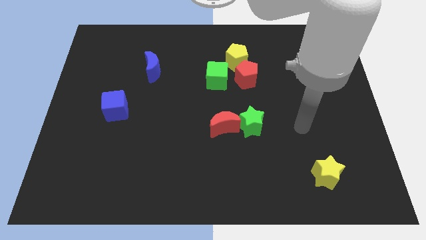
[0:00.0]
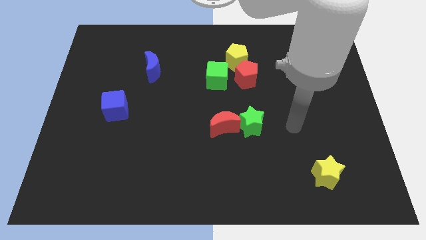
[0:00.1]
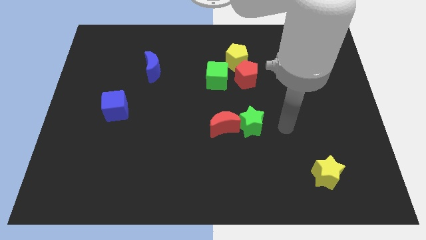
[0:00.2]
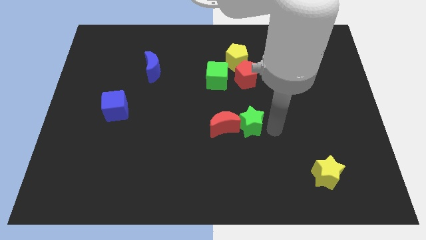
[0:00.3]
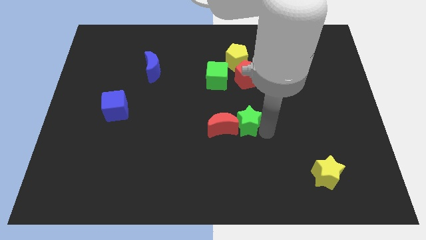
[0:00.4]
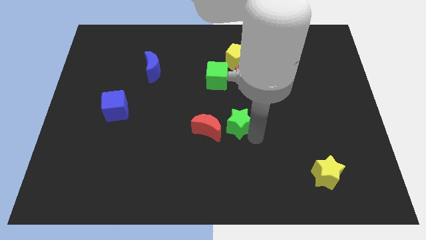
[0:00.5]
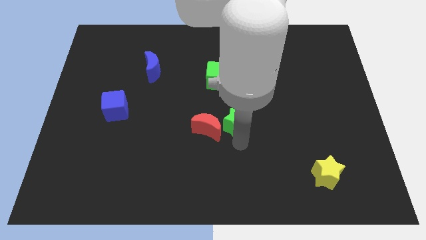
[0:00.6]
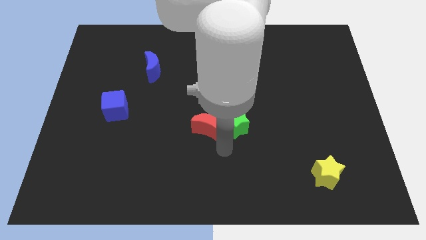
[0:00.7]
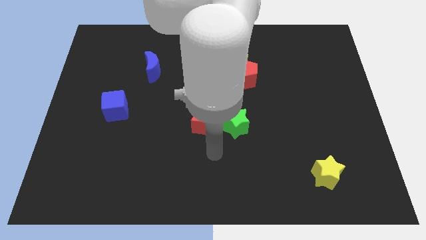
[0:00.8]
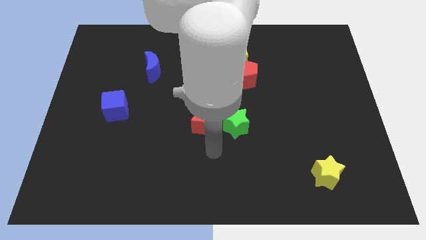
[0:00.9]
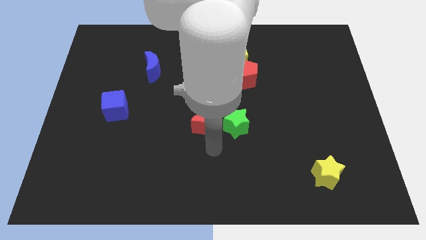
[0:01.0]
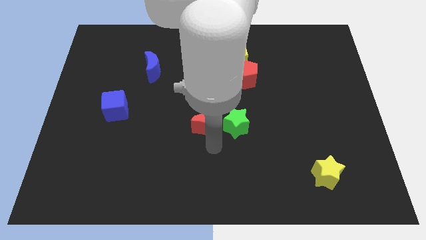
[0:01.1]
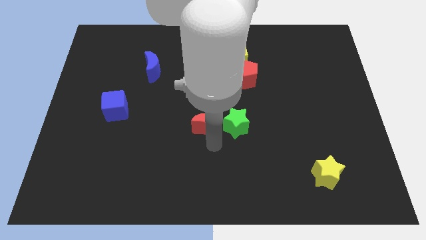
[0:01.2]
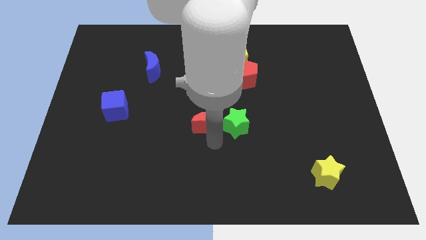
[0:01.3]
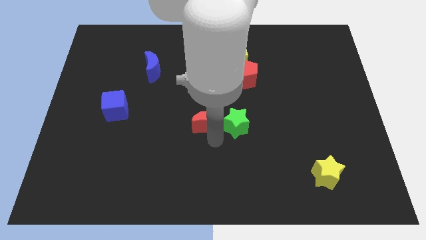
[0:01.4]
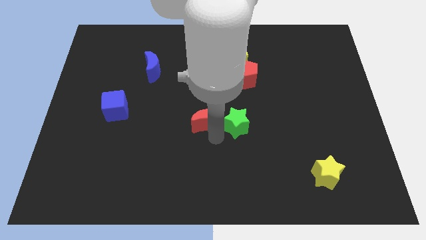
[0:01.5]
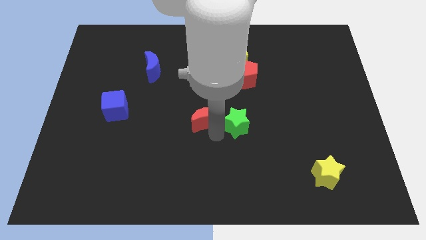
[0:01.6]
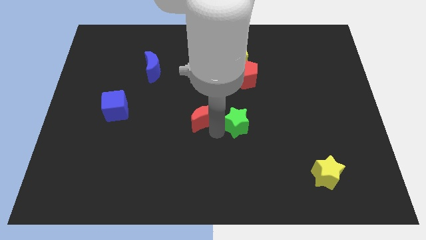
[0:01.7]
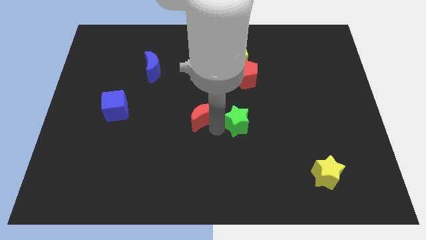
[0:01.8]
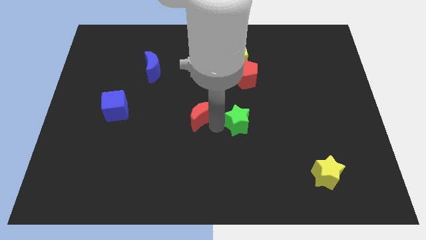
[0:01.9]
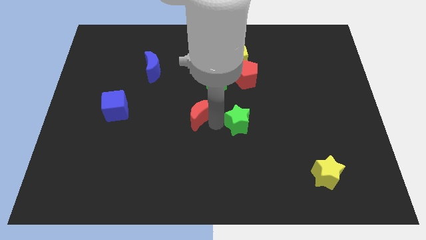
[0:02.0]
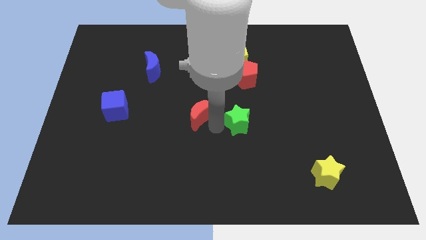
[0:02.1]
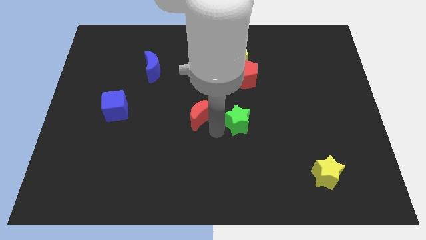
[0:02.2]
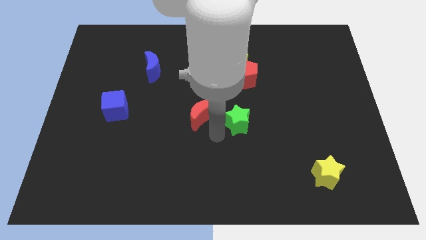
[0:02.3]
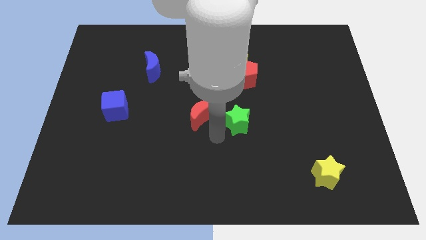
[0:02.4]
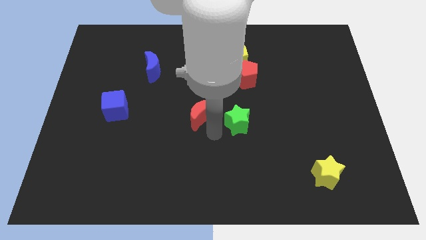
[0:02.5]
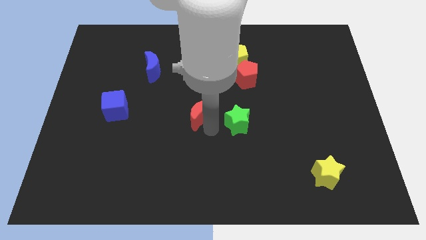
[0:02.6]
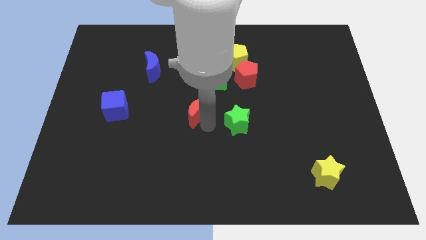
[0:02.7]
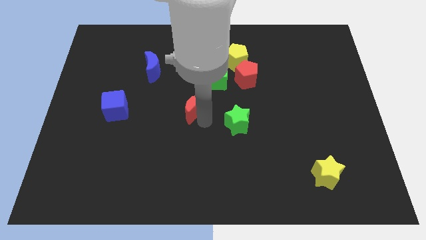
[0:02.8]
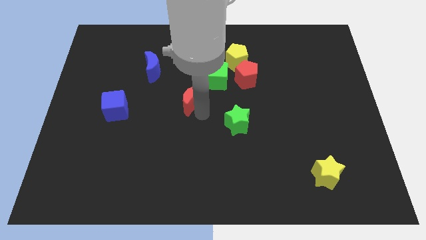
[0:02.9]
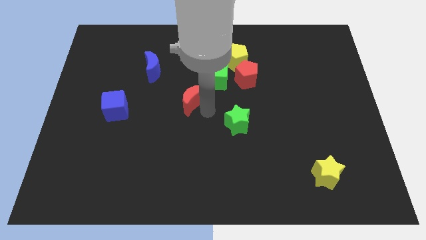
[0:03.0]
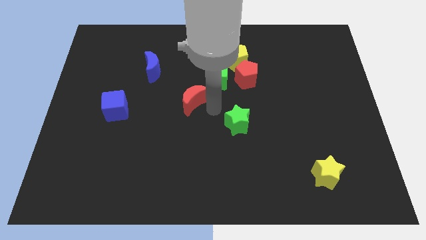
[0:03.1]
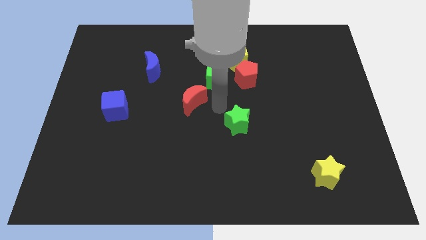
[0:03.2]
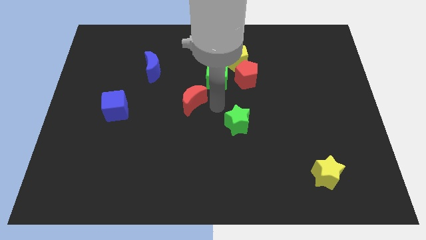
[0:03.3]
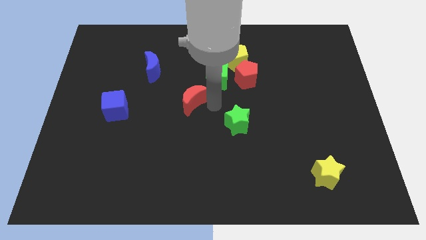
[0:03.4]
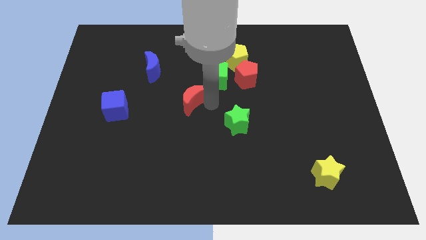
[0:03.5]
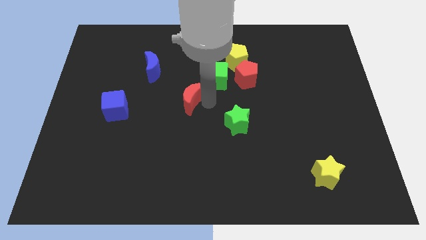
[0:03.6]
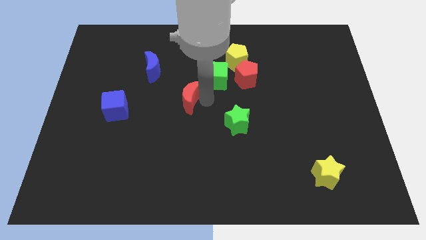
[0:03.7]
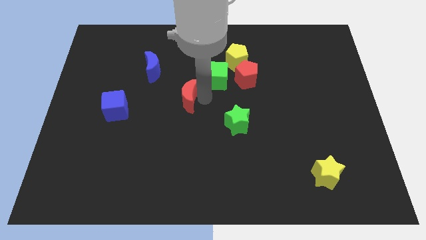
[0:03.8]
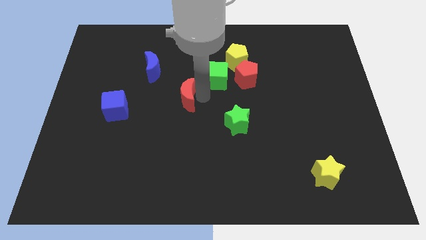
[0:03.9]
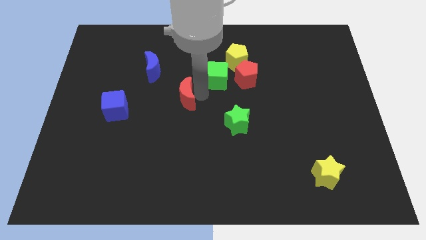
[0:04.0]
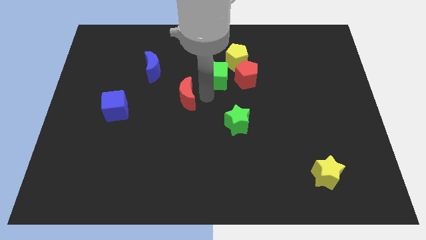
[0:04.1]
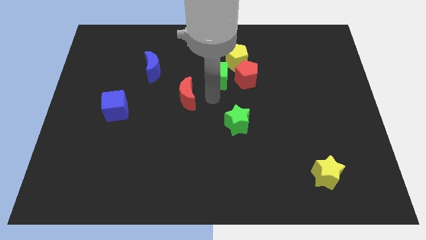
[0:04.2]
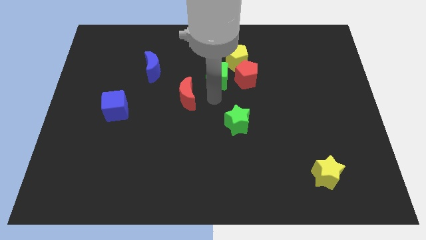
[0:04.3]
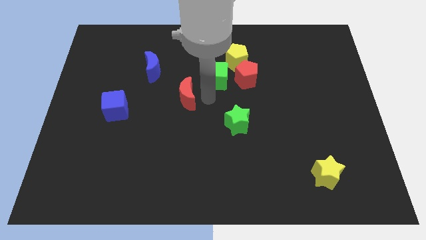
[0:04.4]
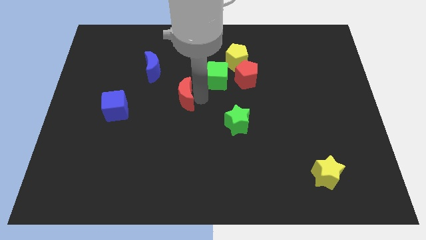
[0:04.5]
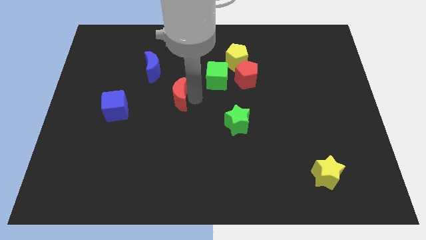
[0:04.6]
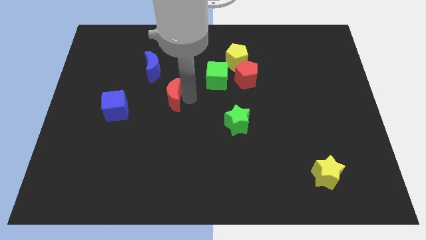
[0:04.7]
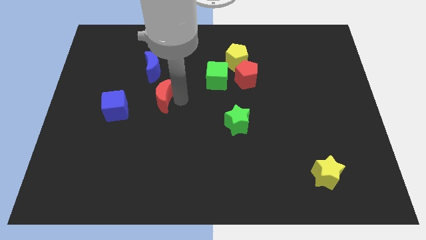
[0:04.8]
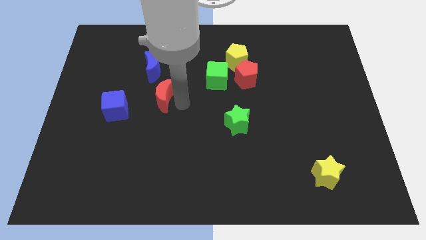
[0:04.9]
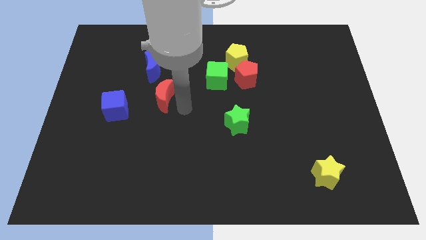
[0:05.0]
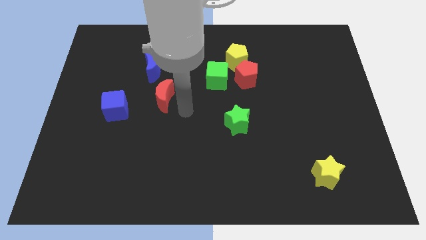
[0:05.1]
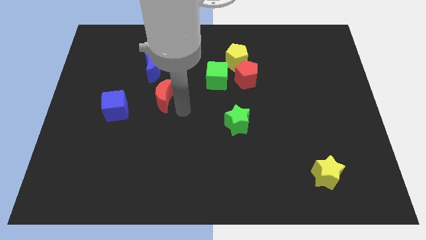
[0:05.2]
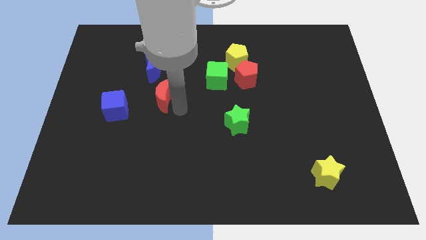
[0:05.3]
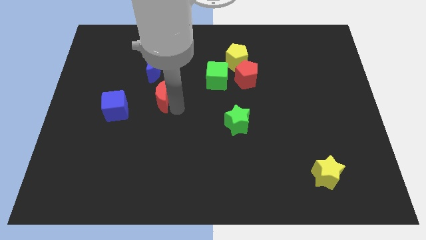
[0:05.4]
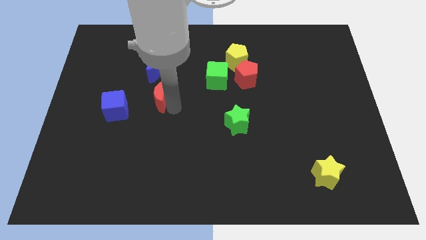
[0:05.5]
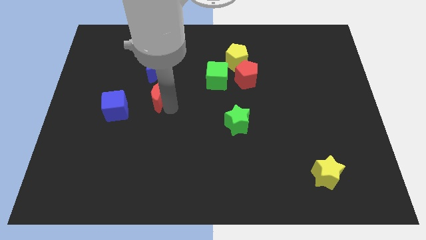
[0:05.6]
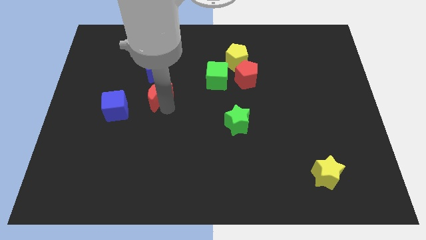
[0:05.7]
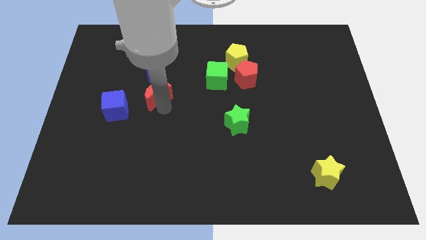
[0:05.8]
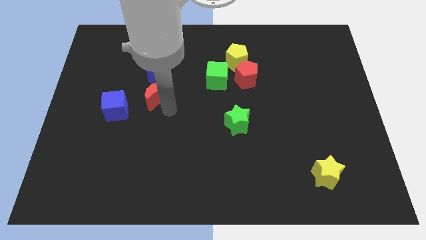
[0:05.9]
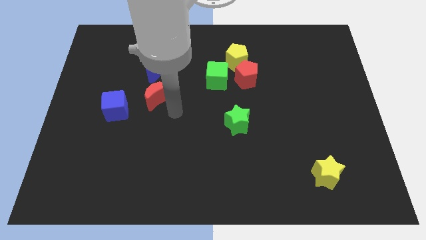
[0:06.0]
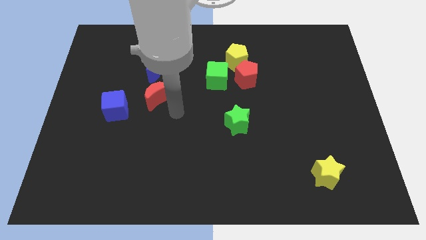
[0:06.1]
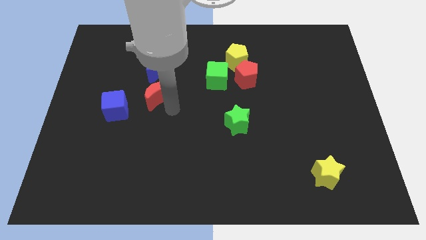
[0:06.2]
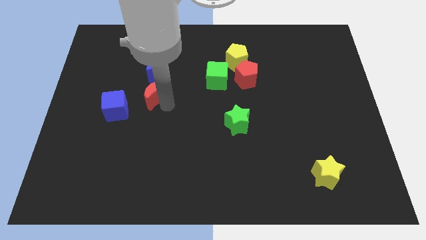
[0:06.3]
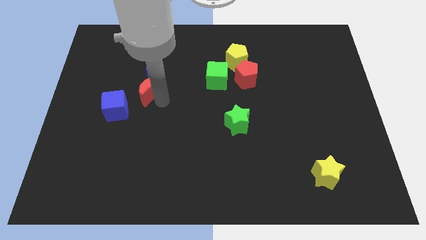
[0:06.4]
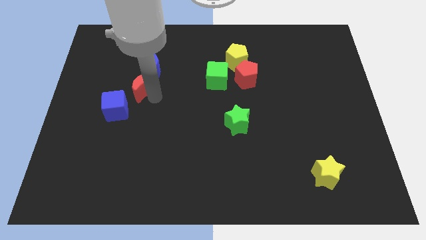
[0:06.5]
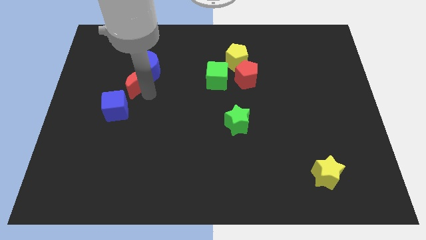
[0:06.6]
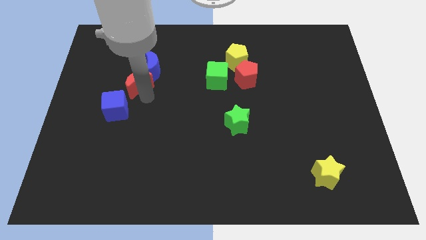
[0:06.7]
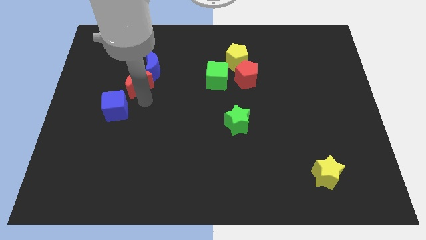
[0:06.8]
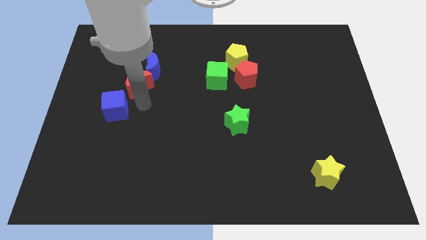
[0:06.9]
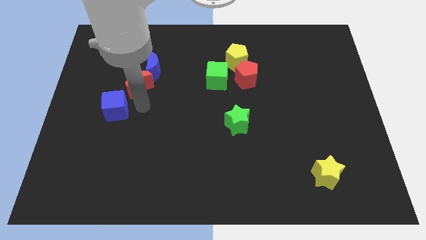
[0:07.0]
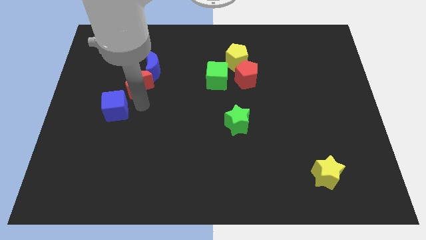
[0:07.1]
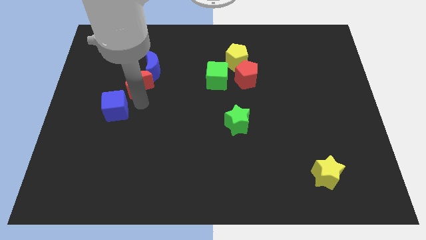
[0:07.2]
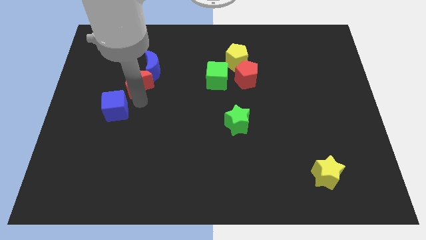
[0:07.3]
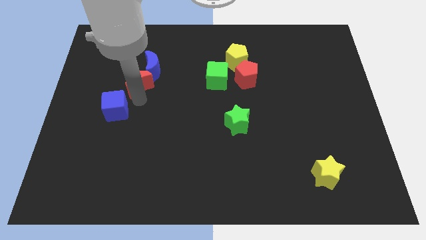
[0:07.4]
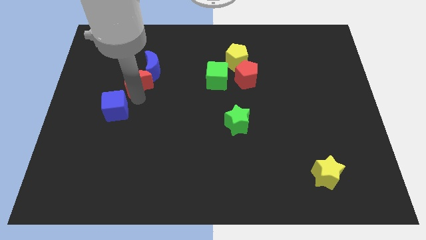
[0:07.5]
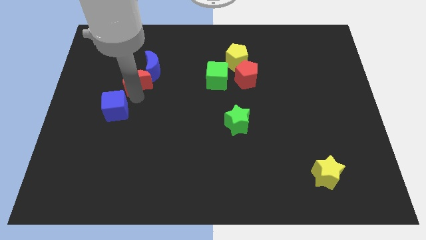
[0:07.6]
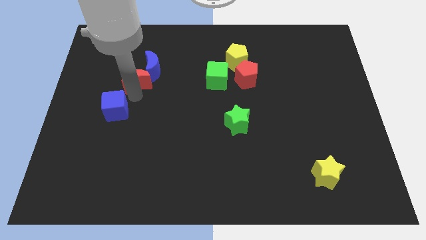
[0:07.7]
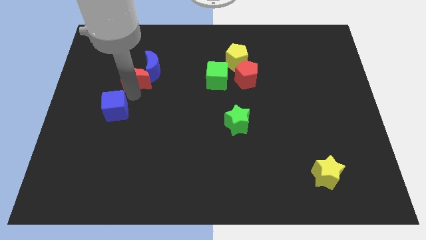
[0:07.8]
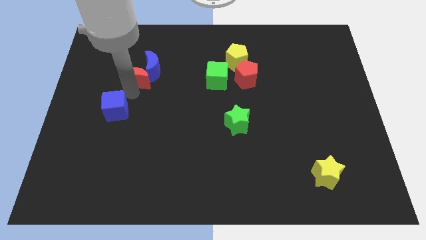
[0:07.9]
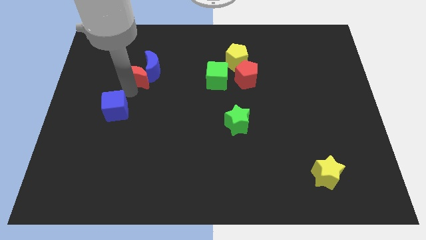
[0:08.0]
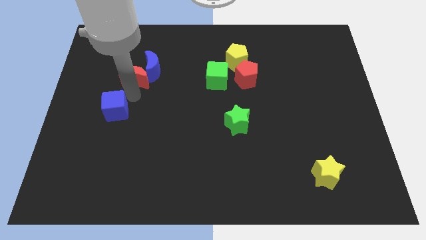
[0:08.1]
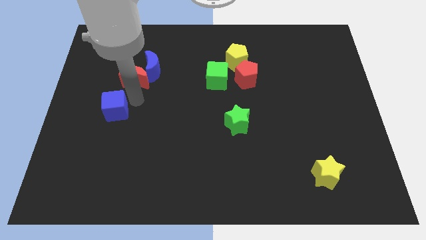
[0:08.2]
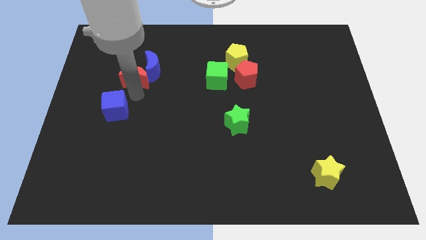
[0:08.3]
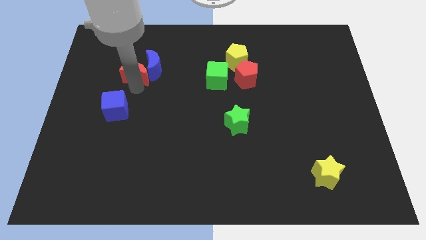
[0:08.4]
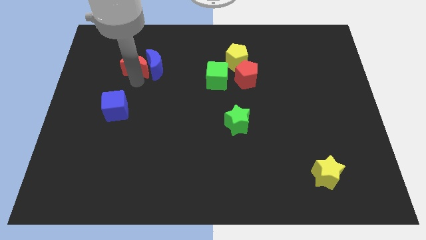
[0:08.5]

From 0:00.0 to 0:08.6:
slide the red moon to the top left of the blue moon
